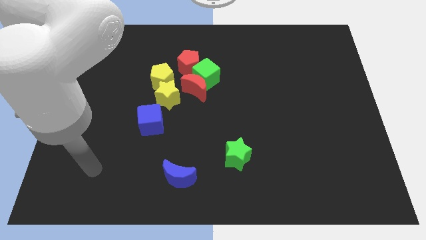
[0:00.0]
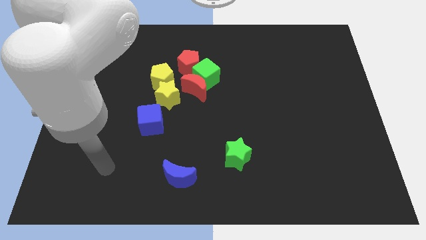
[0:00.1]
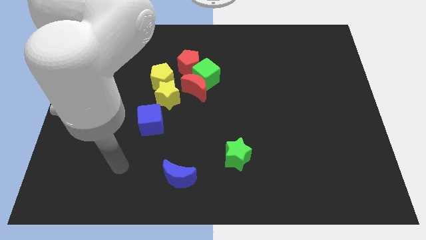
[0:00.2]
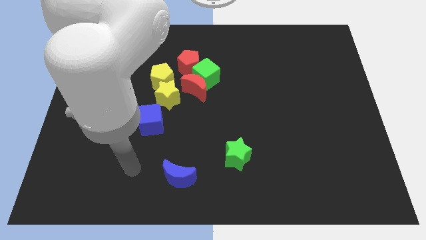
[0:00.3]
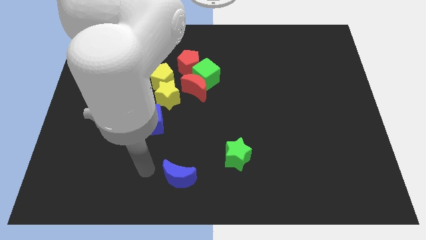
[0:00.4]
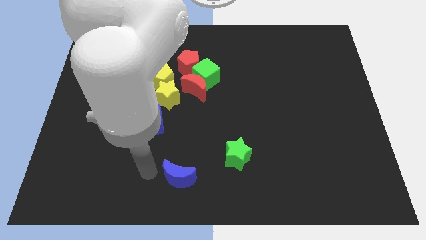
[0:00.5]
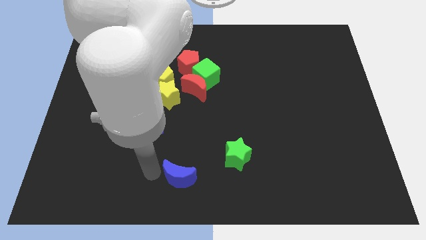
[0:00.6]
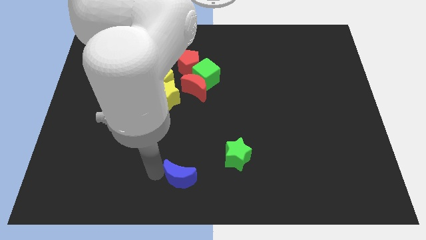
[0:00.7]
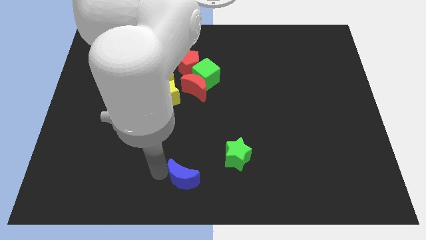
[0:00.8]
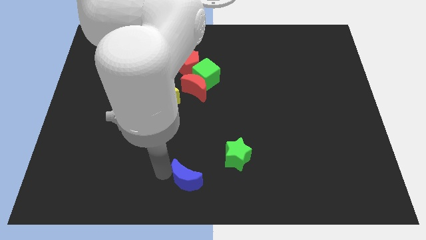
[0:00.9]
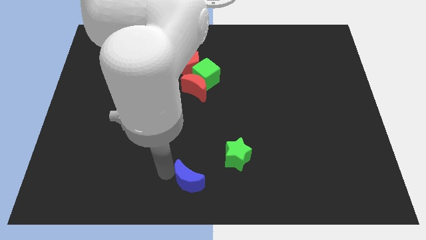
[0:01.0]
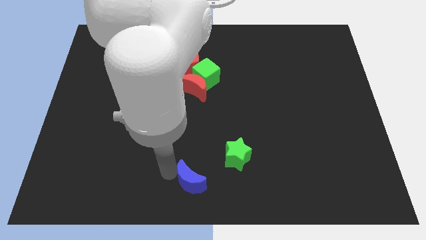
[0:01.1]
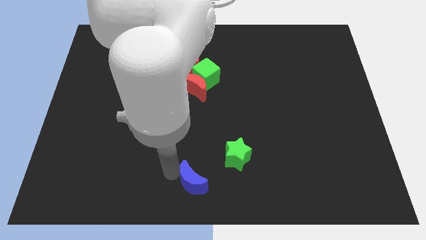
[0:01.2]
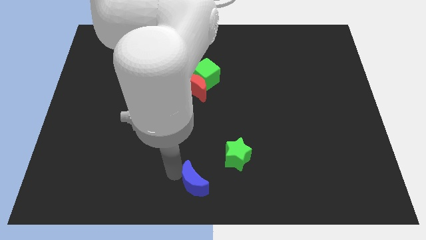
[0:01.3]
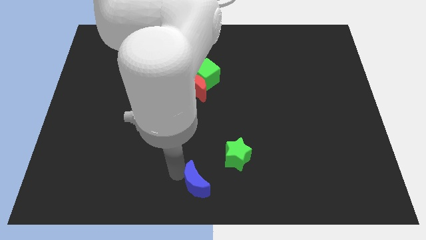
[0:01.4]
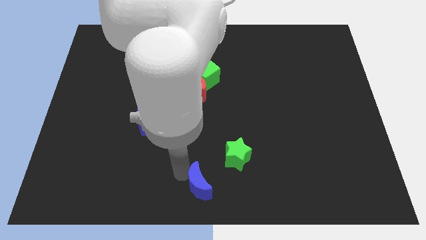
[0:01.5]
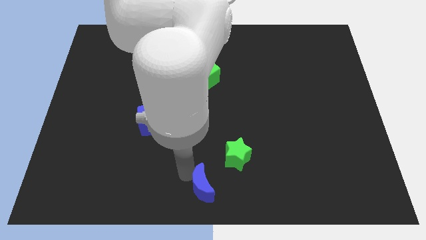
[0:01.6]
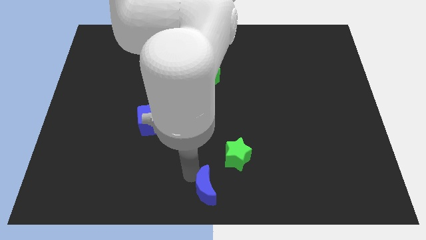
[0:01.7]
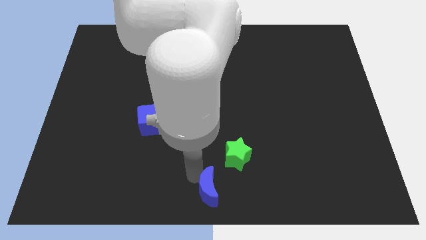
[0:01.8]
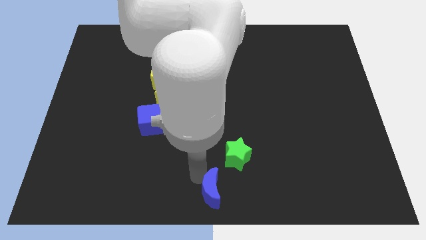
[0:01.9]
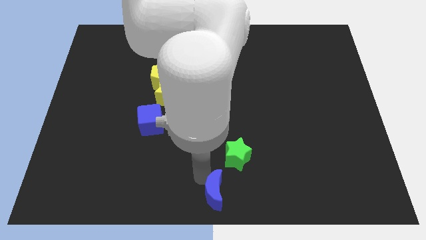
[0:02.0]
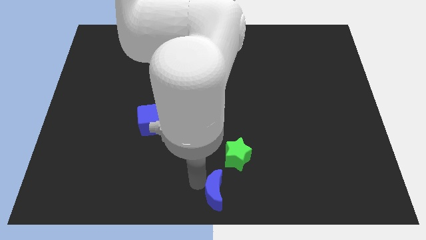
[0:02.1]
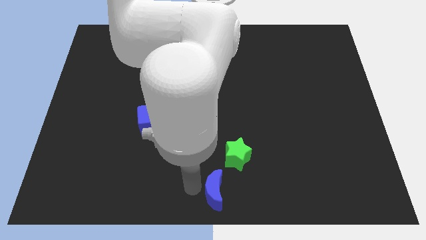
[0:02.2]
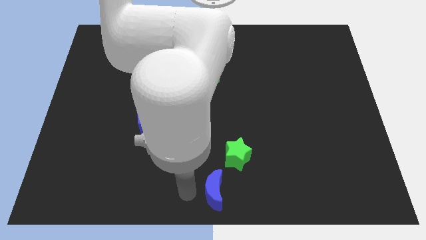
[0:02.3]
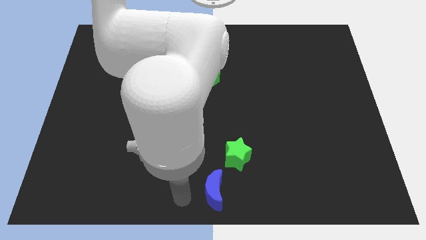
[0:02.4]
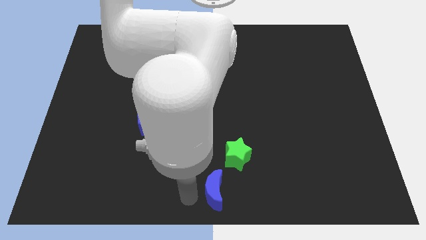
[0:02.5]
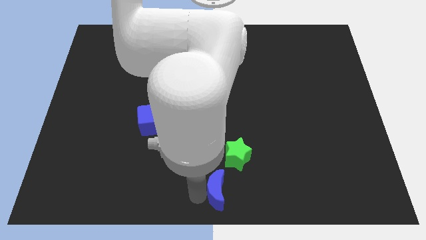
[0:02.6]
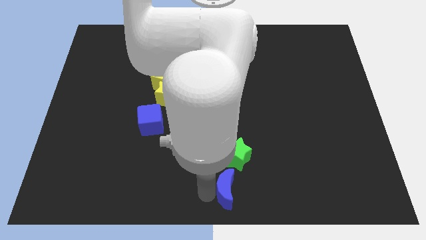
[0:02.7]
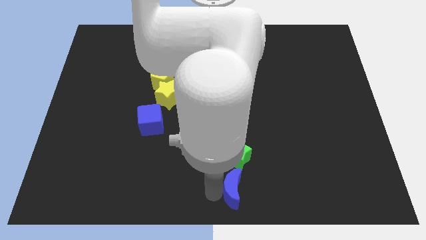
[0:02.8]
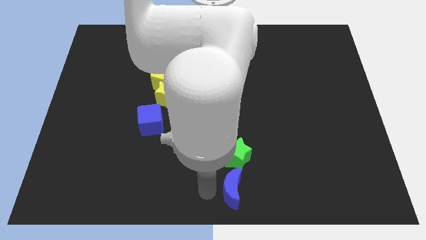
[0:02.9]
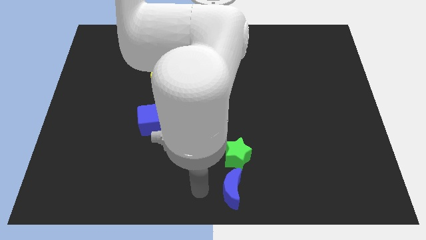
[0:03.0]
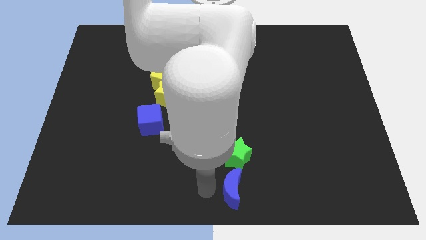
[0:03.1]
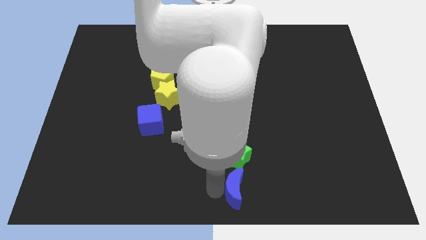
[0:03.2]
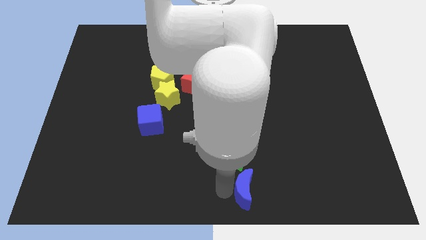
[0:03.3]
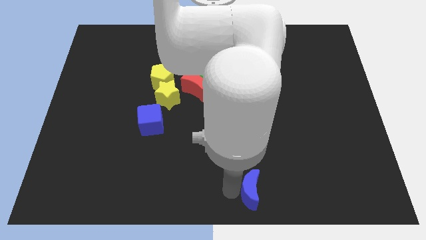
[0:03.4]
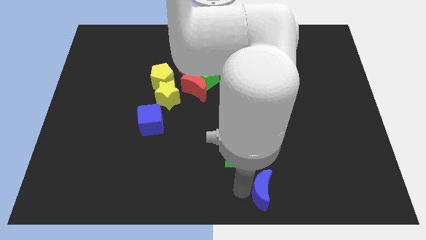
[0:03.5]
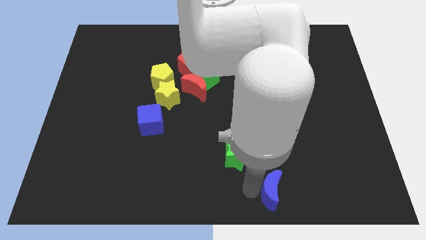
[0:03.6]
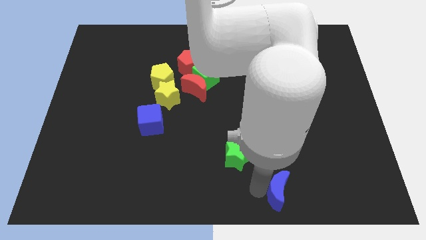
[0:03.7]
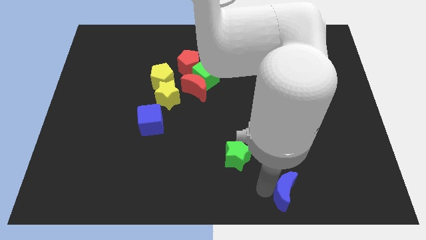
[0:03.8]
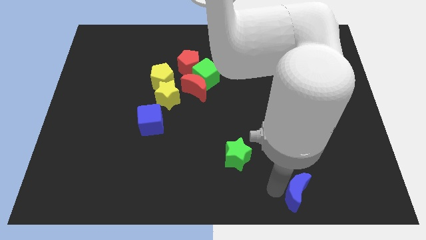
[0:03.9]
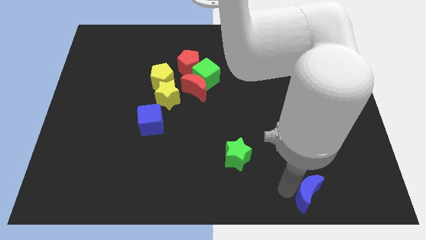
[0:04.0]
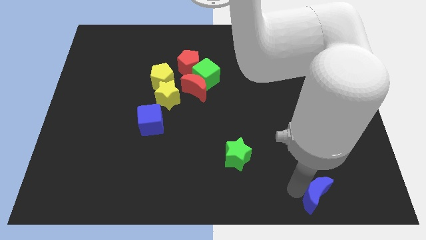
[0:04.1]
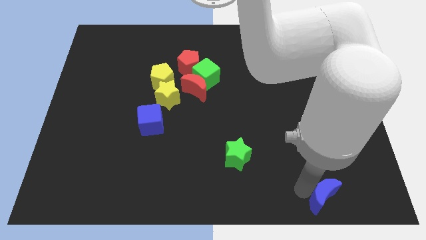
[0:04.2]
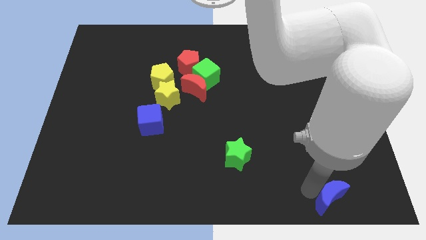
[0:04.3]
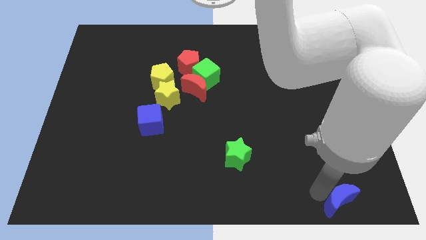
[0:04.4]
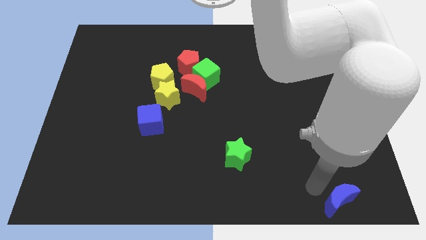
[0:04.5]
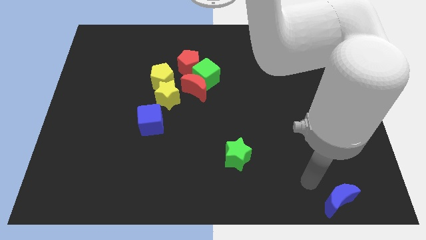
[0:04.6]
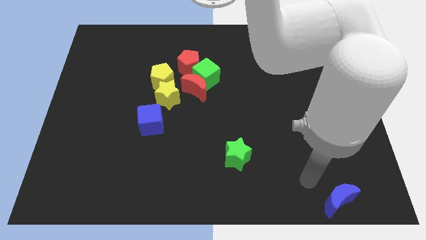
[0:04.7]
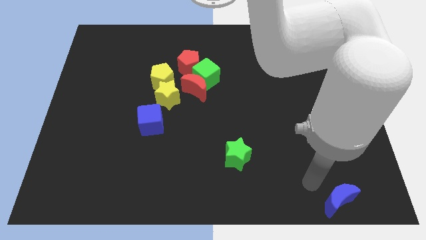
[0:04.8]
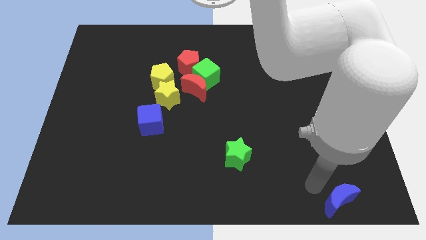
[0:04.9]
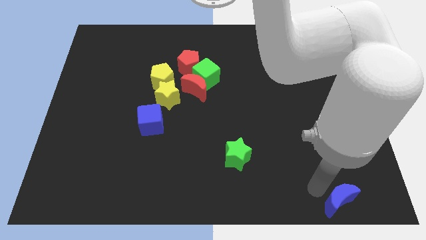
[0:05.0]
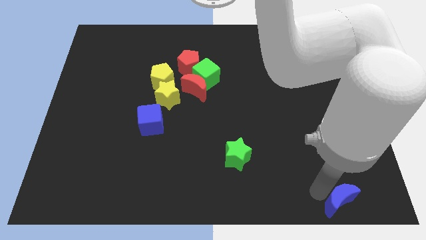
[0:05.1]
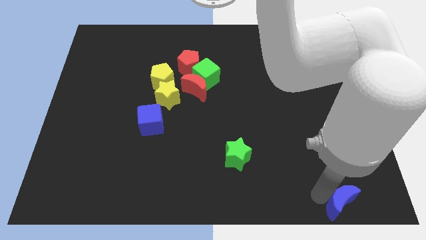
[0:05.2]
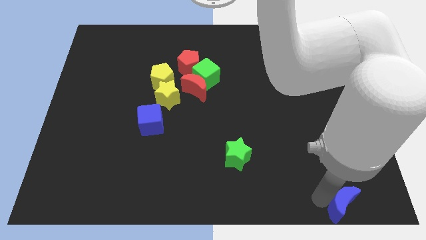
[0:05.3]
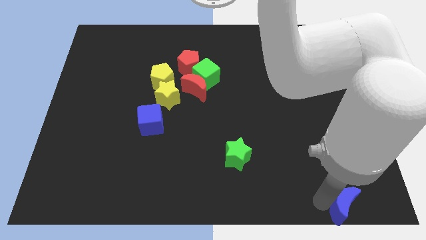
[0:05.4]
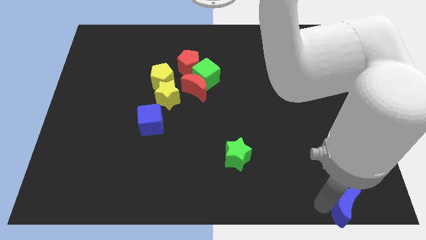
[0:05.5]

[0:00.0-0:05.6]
push the blue moon to the bottom right of the board

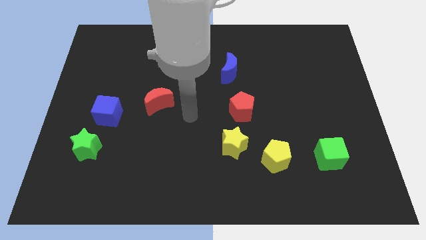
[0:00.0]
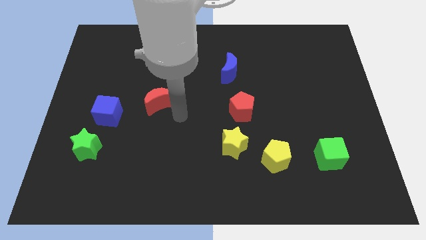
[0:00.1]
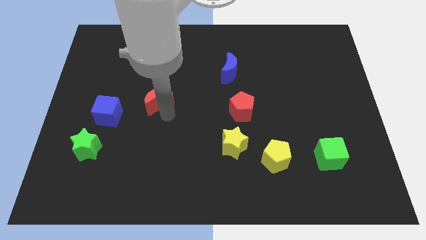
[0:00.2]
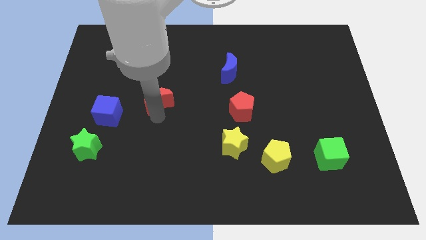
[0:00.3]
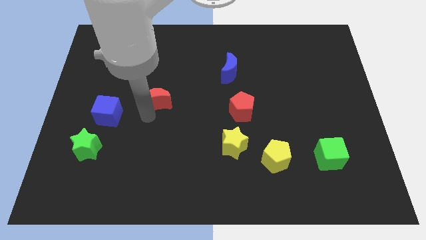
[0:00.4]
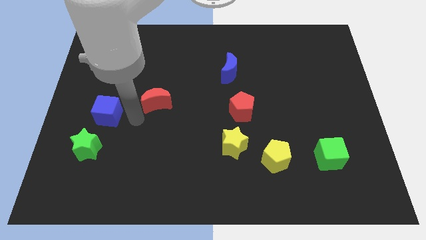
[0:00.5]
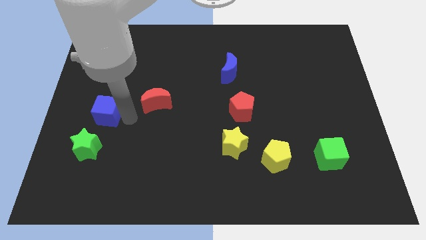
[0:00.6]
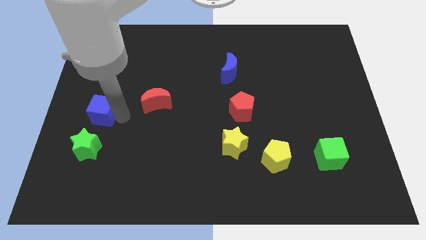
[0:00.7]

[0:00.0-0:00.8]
move the blue cube to the left side
